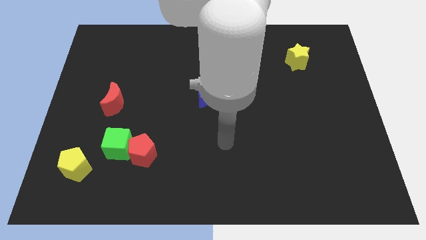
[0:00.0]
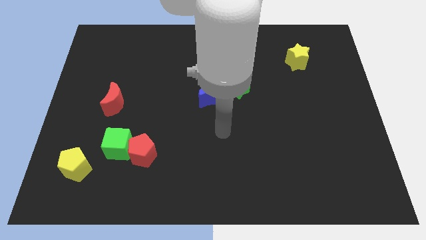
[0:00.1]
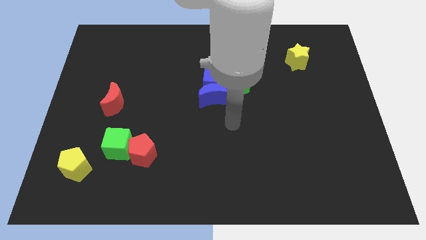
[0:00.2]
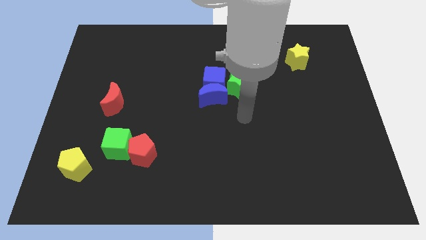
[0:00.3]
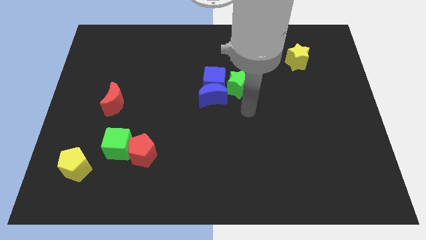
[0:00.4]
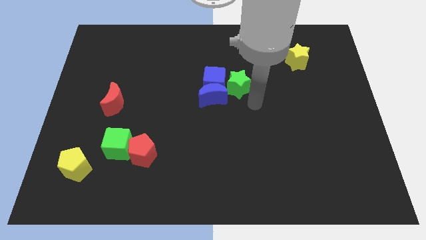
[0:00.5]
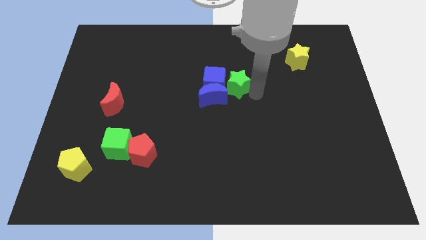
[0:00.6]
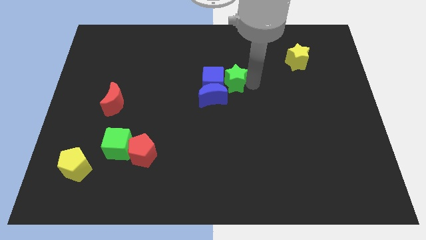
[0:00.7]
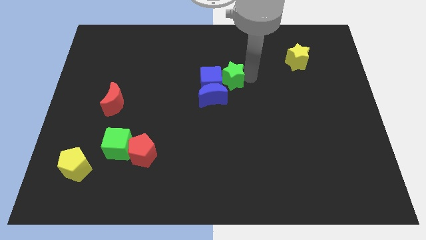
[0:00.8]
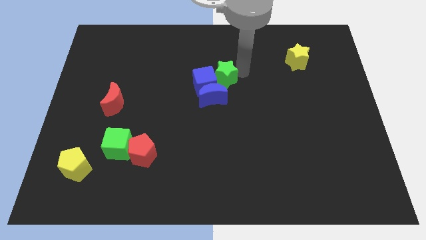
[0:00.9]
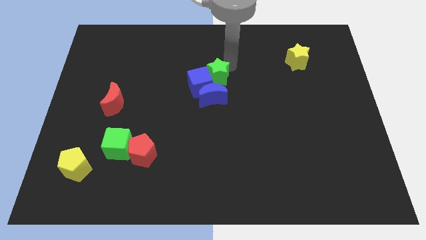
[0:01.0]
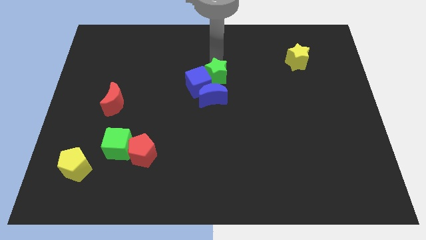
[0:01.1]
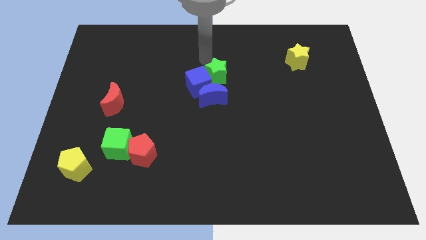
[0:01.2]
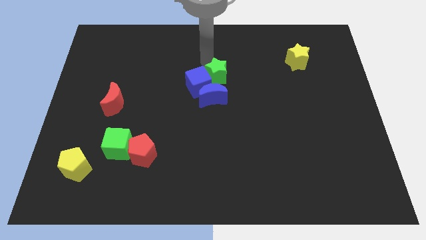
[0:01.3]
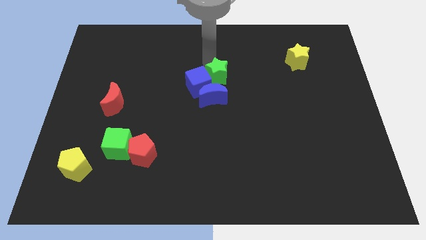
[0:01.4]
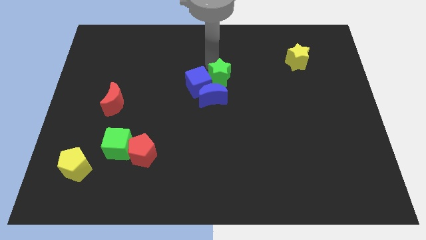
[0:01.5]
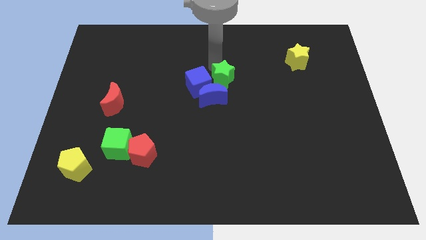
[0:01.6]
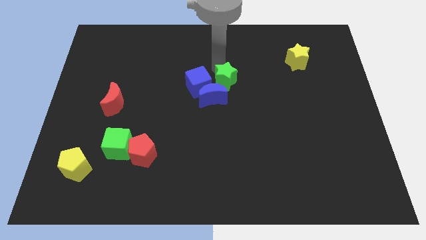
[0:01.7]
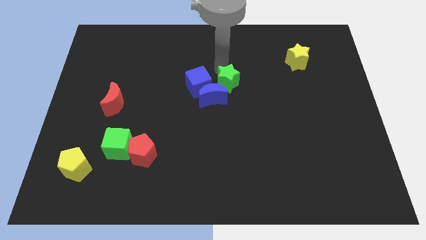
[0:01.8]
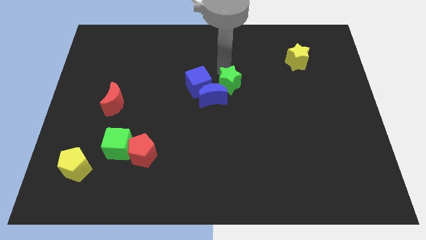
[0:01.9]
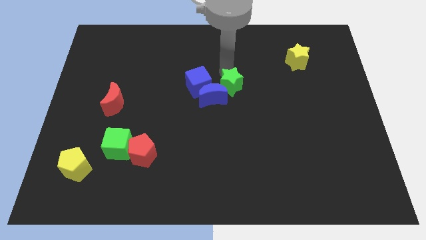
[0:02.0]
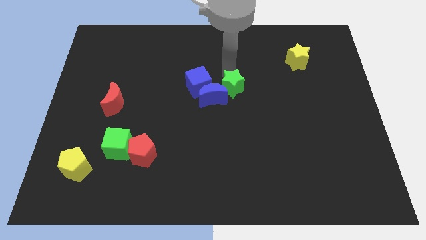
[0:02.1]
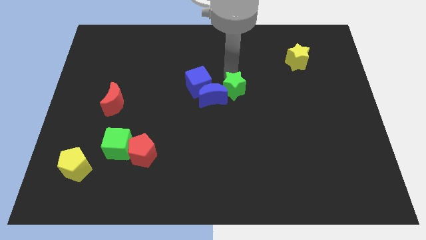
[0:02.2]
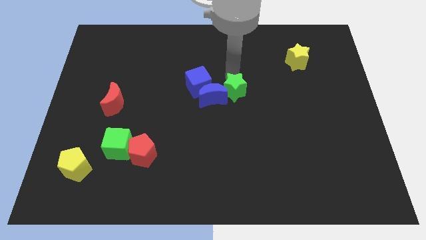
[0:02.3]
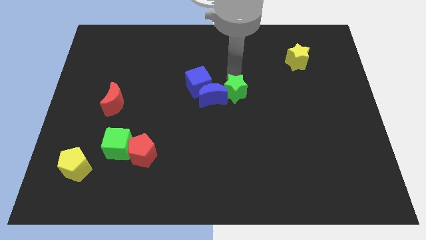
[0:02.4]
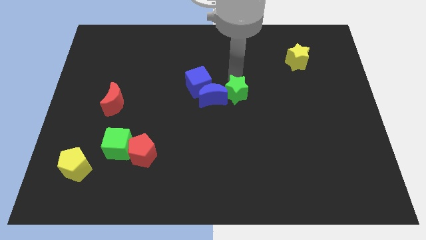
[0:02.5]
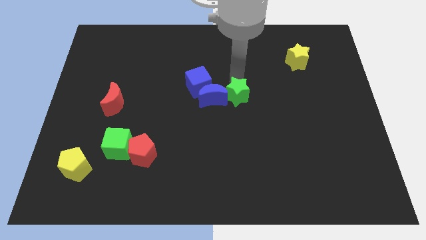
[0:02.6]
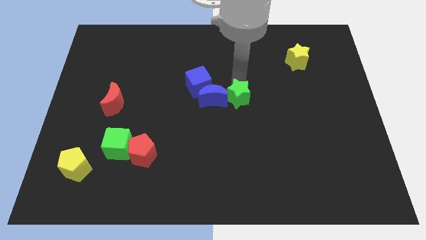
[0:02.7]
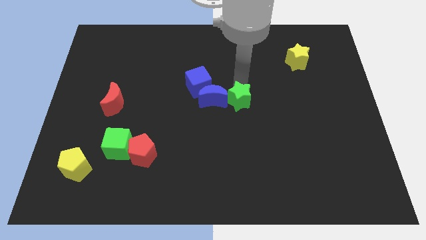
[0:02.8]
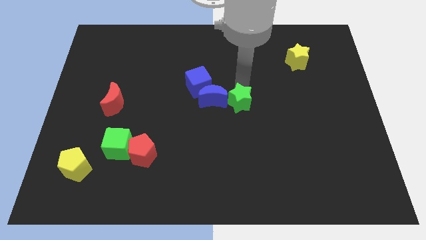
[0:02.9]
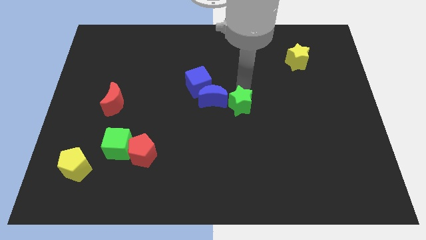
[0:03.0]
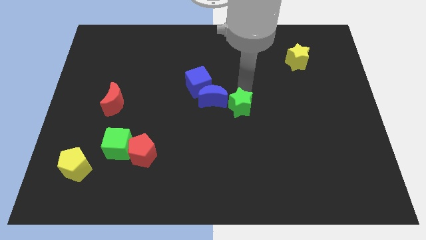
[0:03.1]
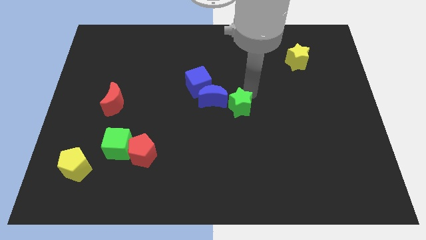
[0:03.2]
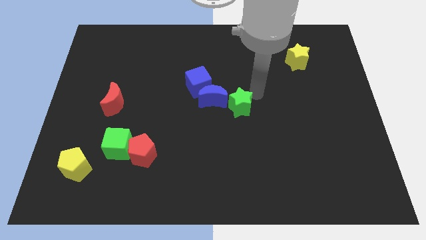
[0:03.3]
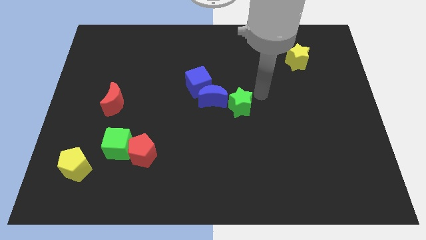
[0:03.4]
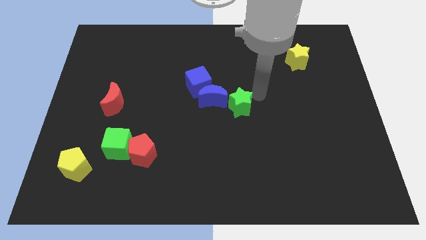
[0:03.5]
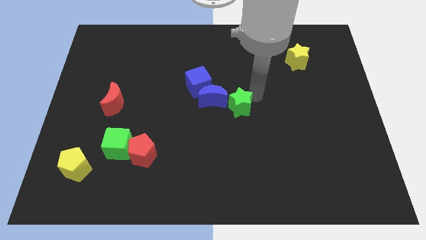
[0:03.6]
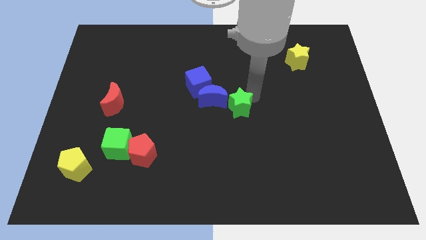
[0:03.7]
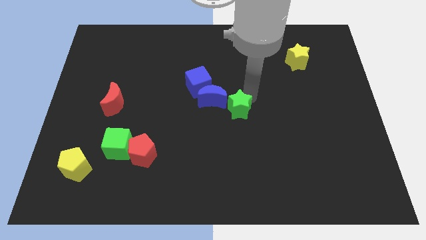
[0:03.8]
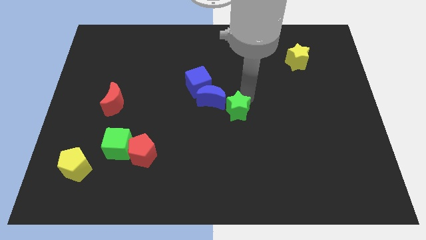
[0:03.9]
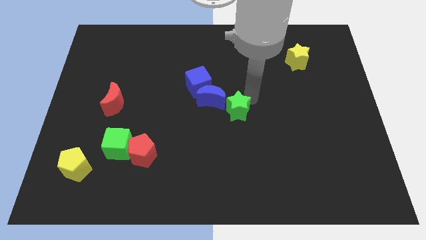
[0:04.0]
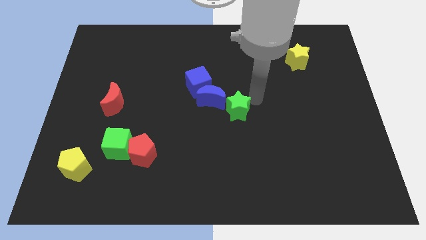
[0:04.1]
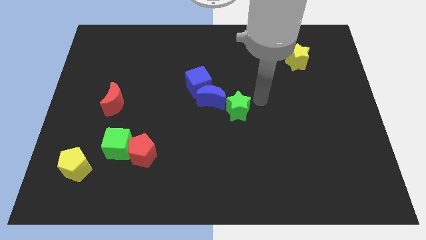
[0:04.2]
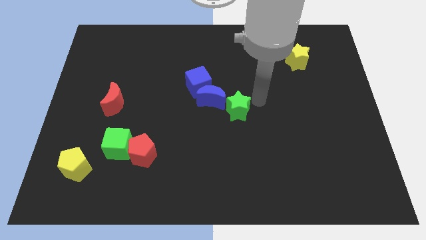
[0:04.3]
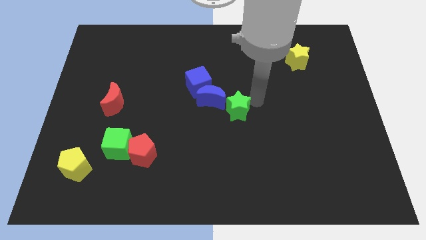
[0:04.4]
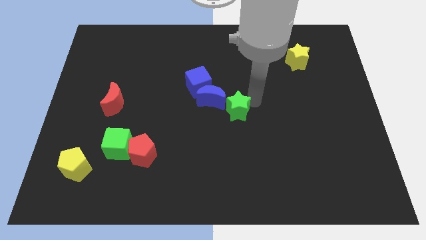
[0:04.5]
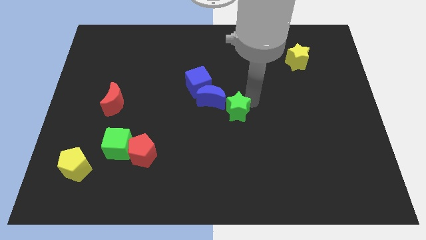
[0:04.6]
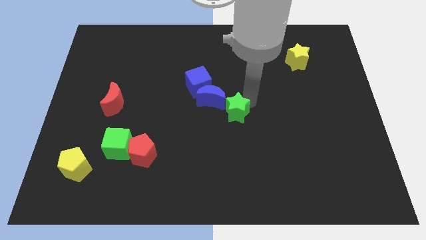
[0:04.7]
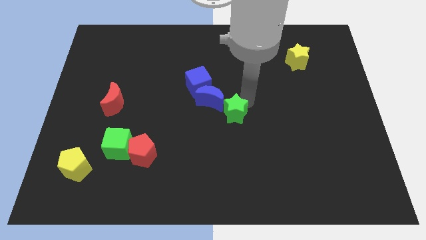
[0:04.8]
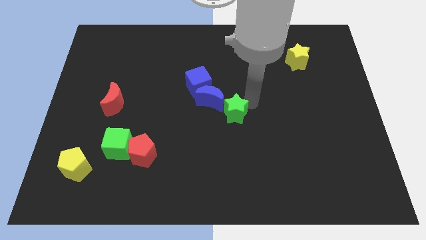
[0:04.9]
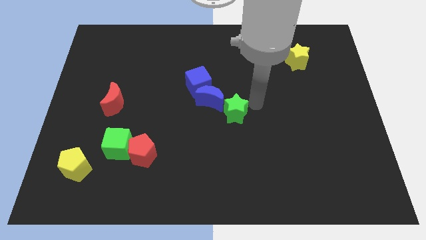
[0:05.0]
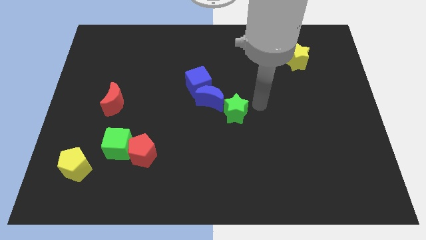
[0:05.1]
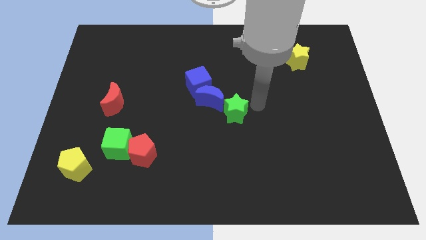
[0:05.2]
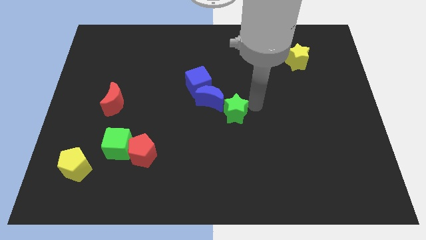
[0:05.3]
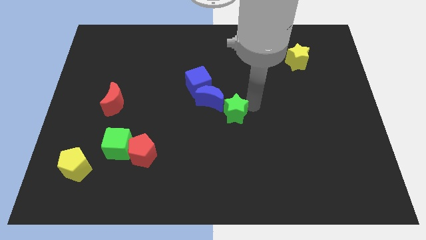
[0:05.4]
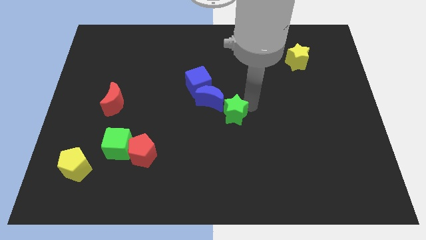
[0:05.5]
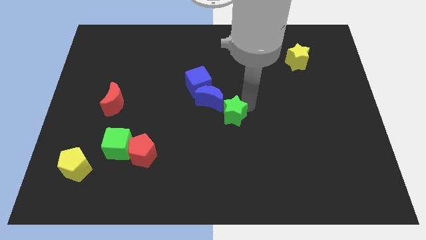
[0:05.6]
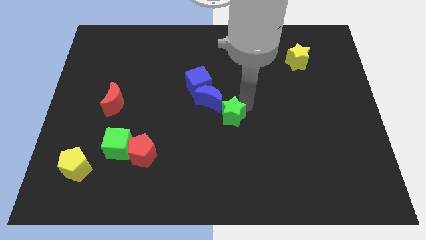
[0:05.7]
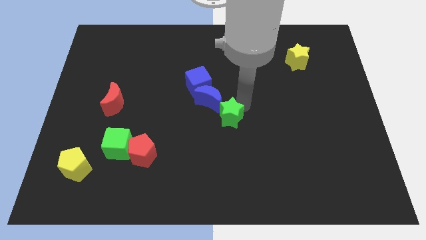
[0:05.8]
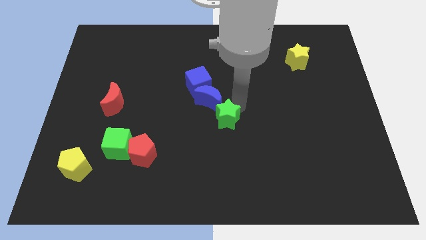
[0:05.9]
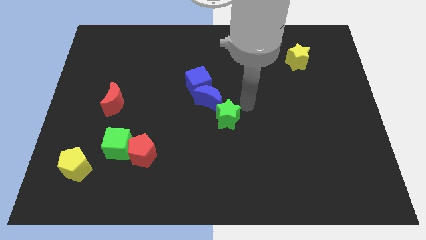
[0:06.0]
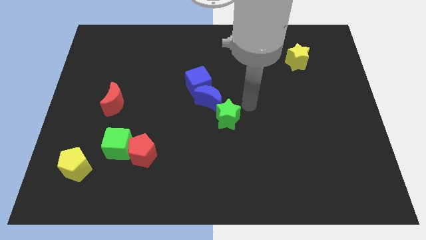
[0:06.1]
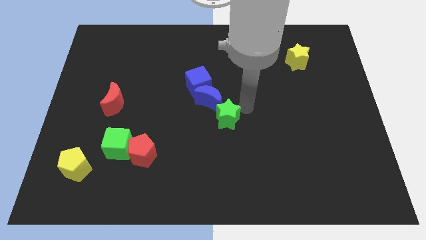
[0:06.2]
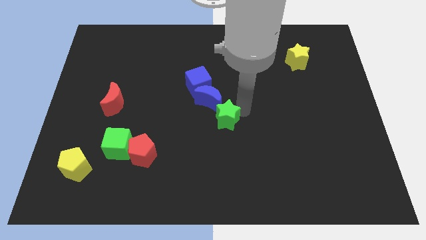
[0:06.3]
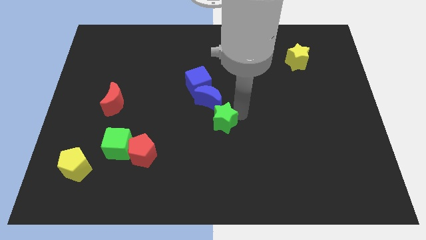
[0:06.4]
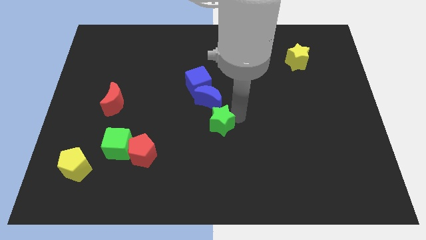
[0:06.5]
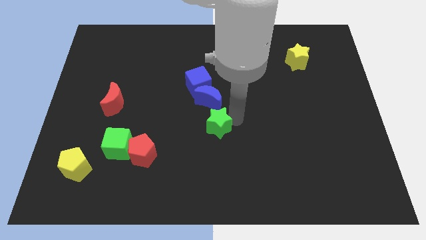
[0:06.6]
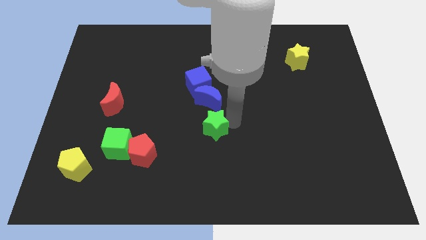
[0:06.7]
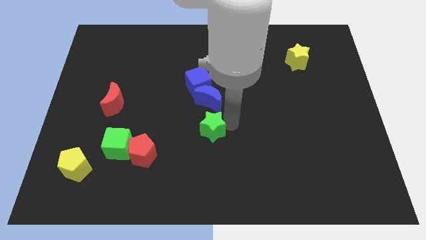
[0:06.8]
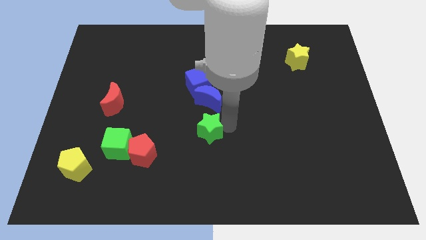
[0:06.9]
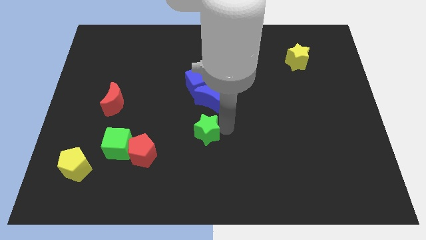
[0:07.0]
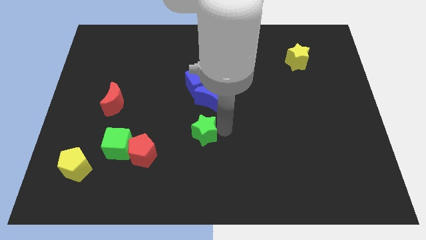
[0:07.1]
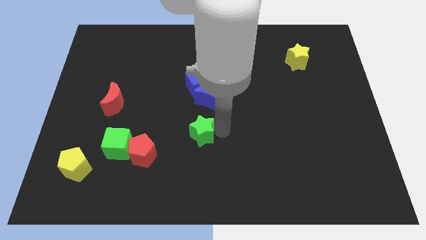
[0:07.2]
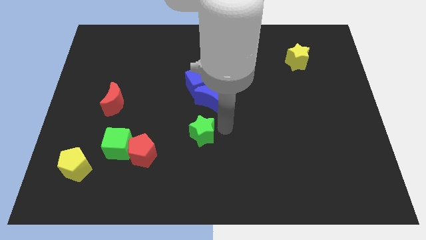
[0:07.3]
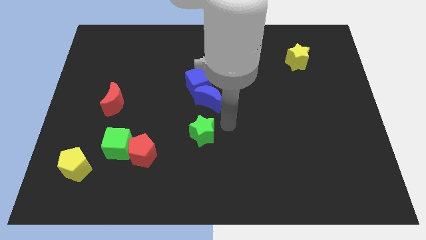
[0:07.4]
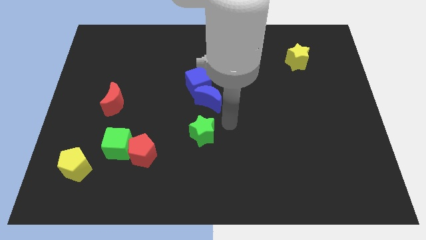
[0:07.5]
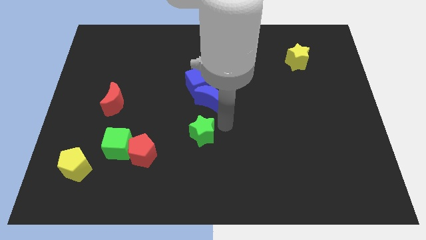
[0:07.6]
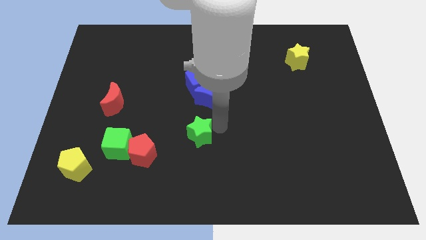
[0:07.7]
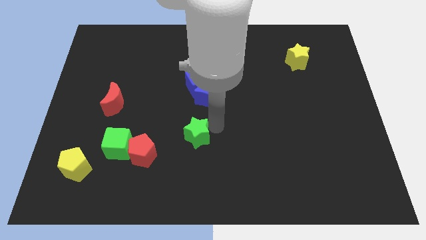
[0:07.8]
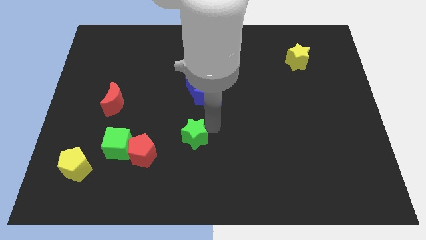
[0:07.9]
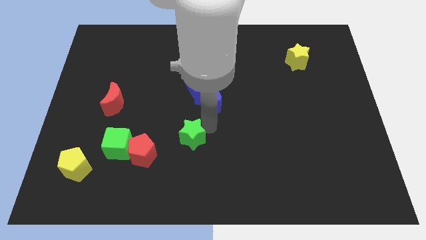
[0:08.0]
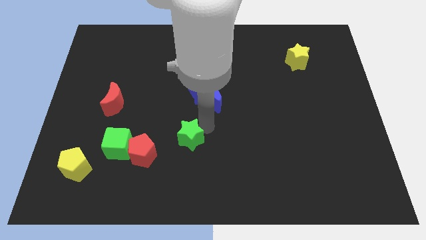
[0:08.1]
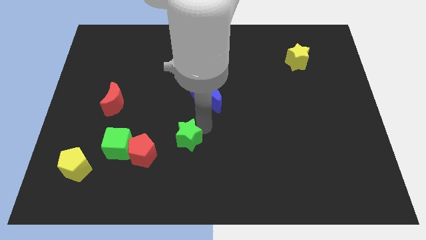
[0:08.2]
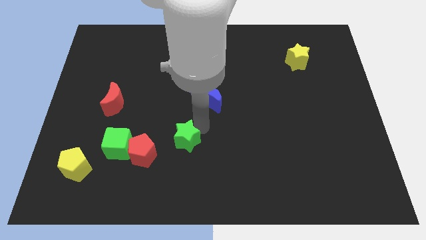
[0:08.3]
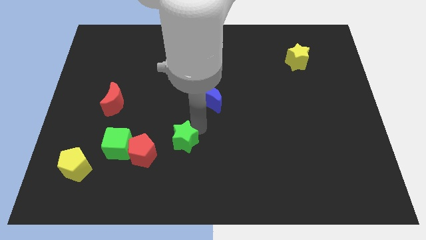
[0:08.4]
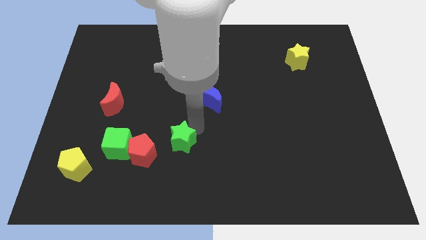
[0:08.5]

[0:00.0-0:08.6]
push the green star down and then to the left
